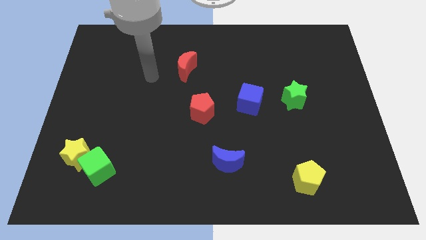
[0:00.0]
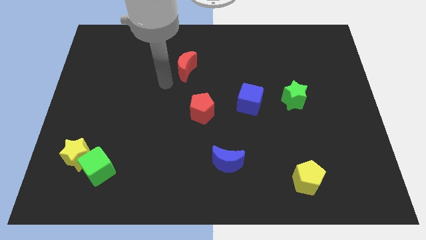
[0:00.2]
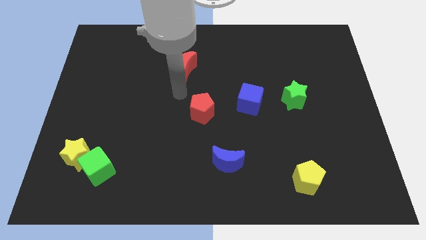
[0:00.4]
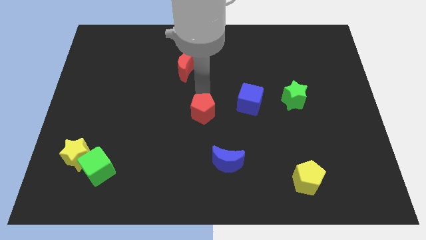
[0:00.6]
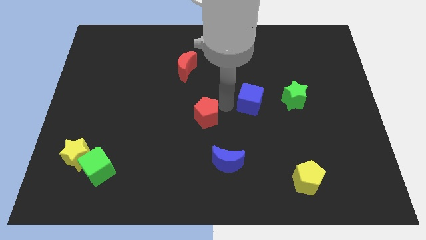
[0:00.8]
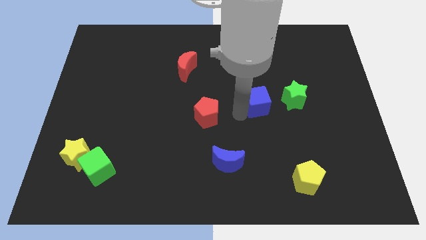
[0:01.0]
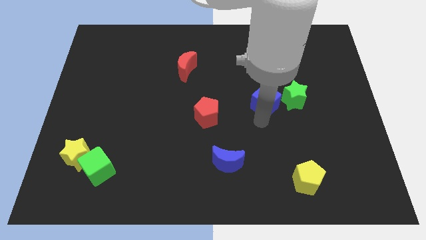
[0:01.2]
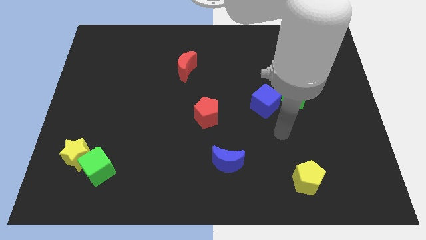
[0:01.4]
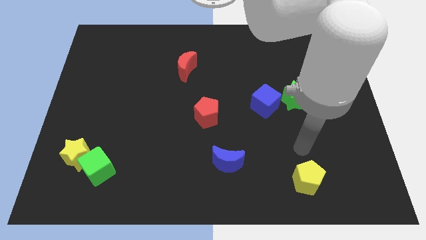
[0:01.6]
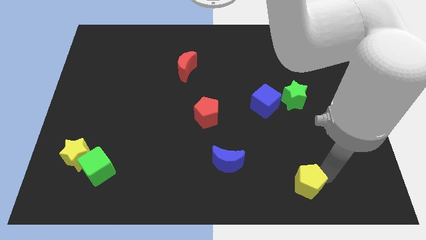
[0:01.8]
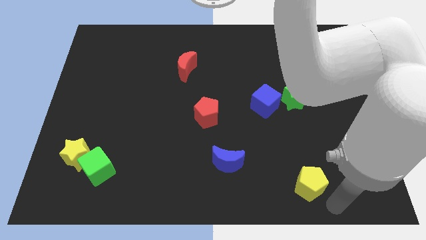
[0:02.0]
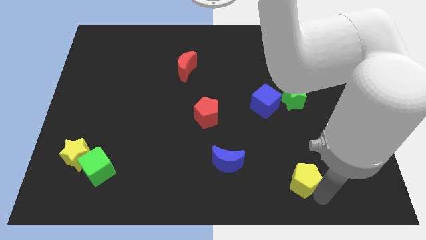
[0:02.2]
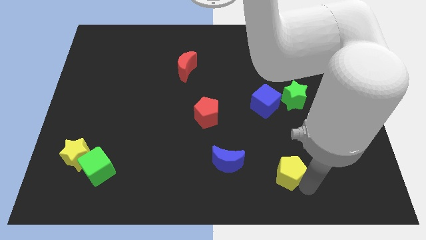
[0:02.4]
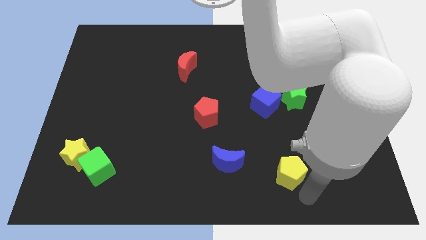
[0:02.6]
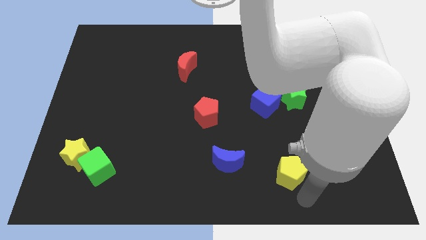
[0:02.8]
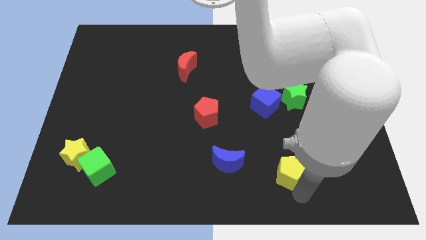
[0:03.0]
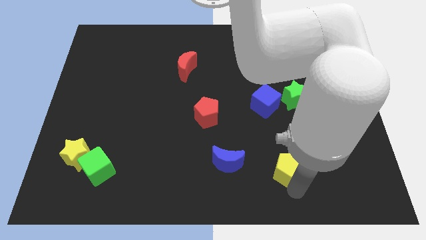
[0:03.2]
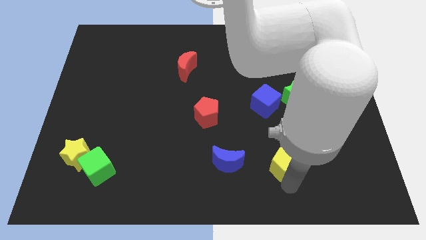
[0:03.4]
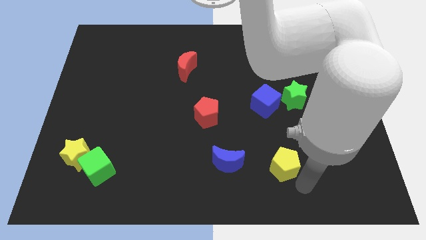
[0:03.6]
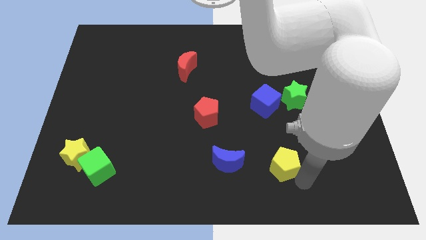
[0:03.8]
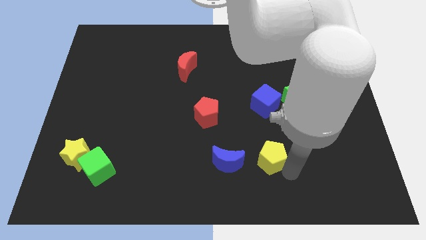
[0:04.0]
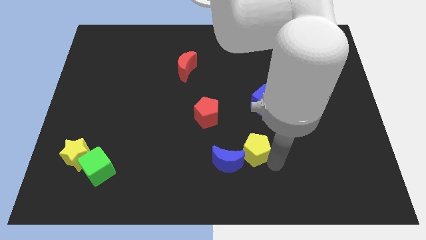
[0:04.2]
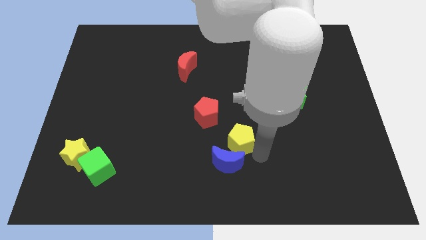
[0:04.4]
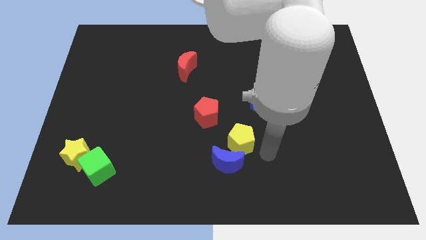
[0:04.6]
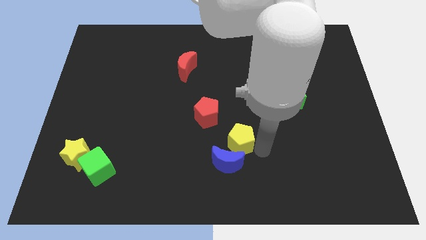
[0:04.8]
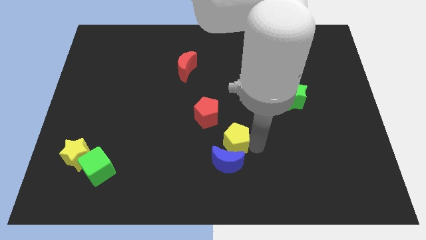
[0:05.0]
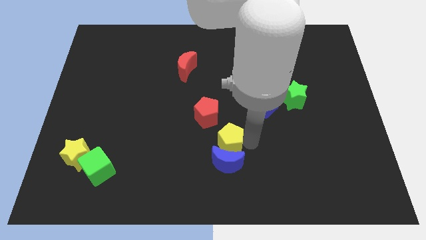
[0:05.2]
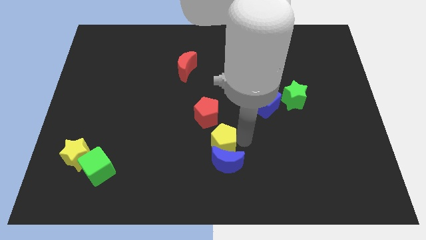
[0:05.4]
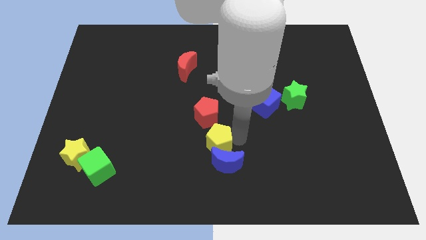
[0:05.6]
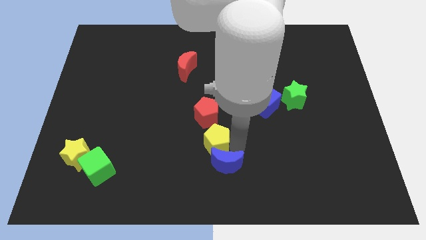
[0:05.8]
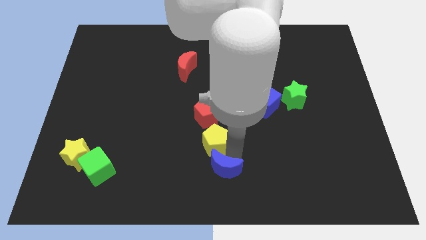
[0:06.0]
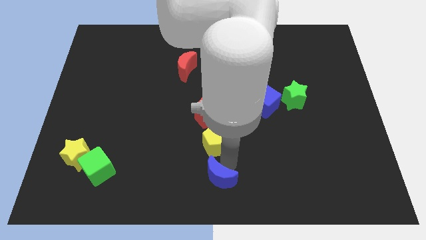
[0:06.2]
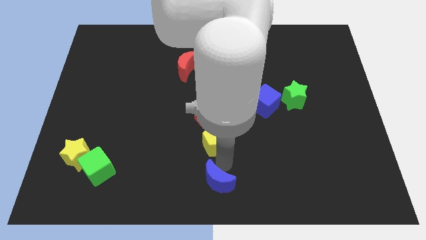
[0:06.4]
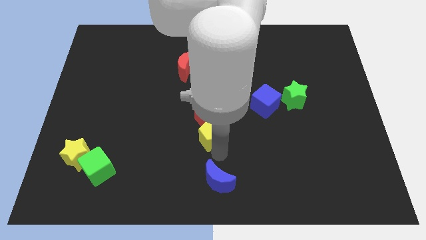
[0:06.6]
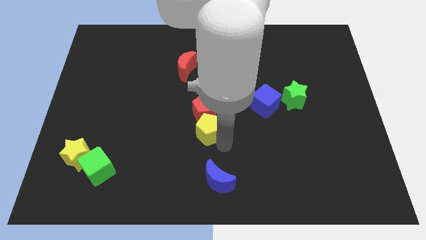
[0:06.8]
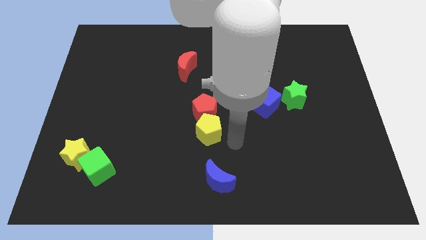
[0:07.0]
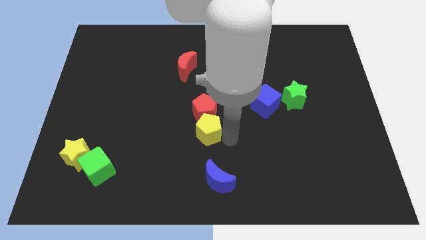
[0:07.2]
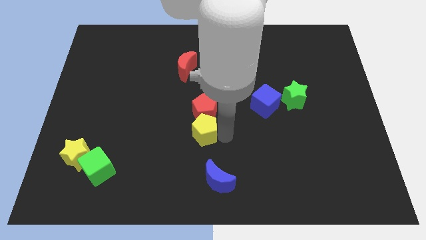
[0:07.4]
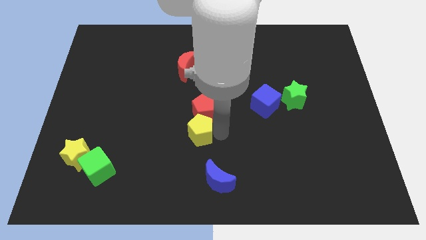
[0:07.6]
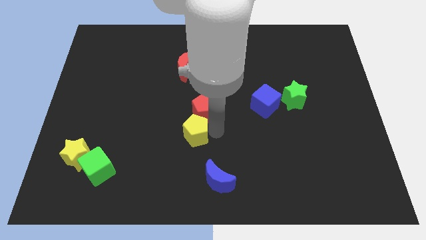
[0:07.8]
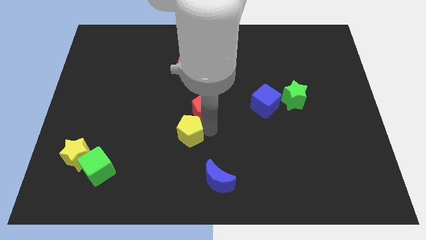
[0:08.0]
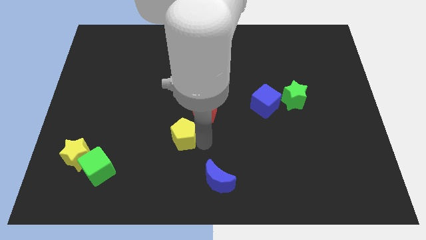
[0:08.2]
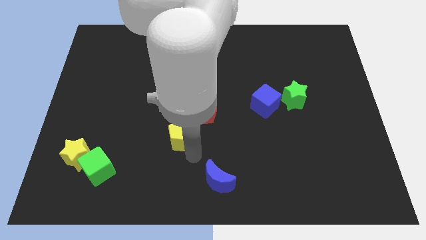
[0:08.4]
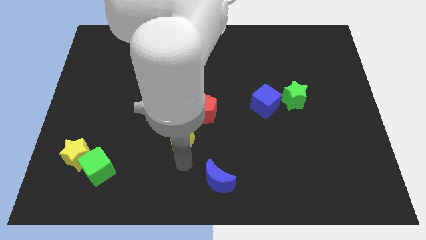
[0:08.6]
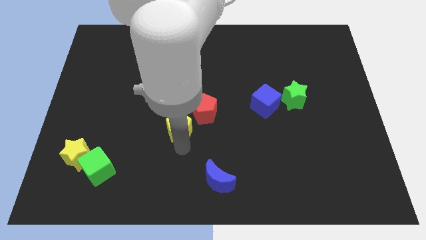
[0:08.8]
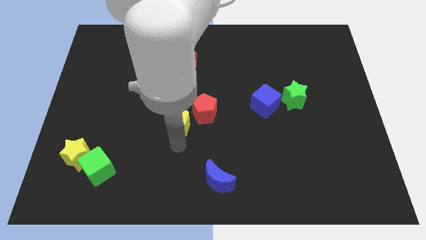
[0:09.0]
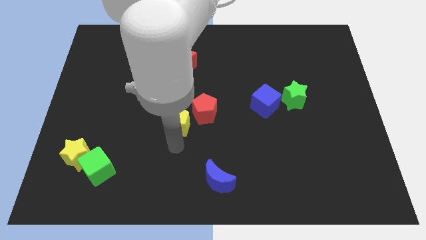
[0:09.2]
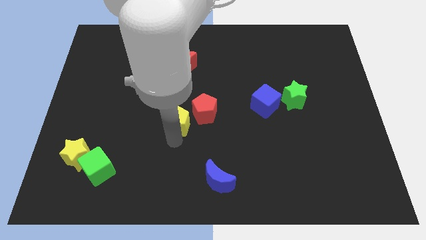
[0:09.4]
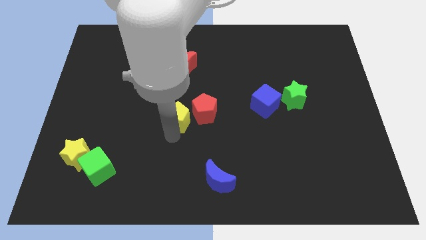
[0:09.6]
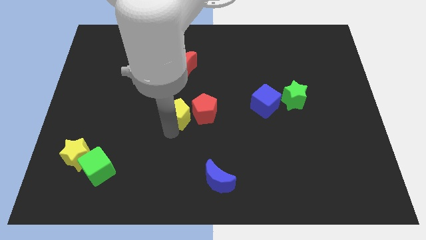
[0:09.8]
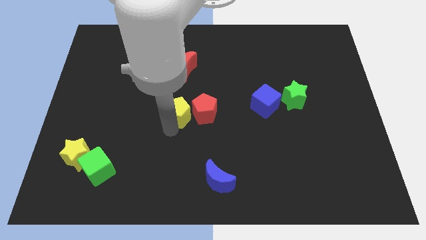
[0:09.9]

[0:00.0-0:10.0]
push the yellow pentagon to the top left of the red pentagon

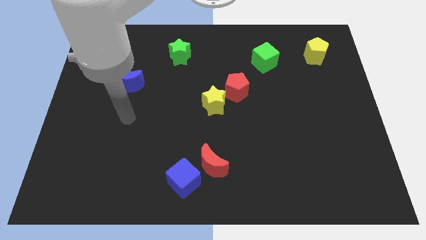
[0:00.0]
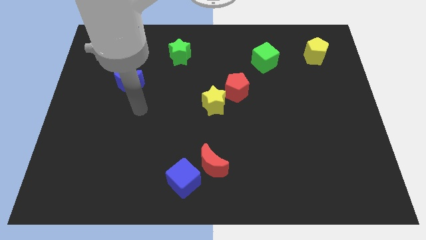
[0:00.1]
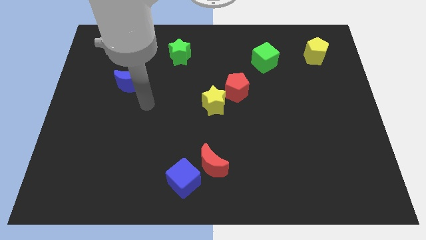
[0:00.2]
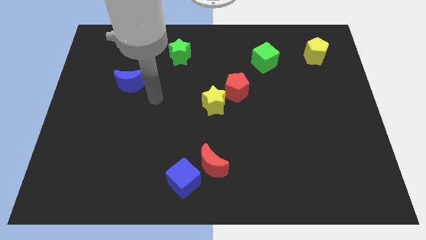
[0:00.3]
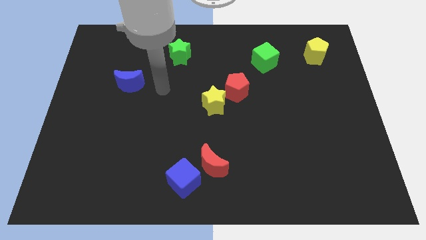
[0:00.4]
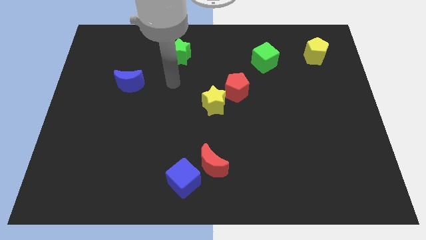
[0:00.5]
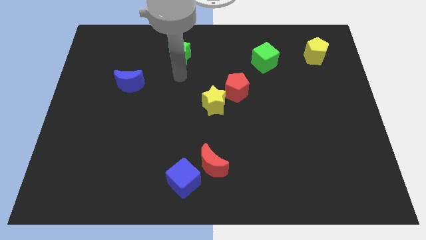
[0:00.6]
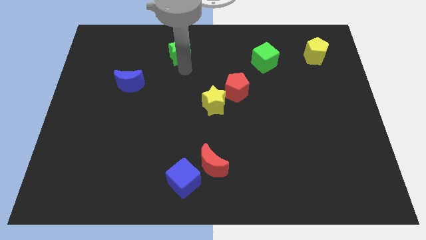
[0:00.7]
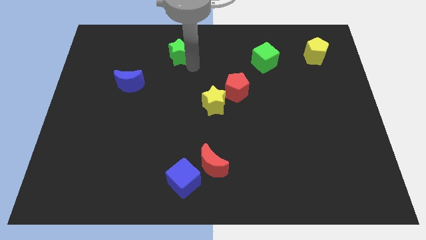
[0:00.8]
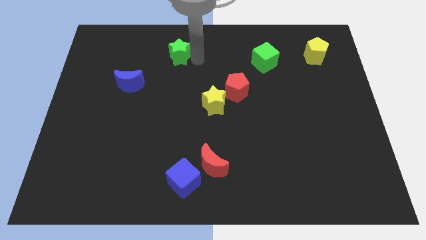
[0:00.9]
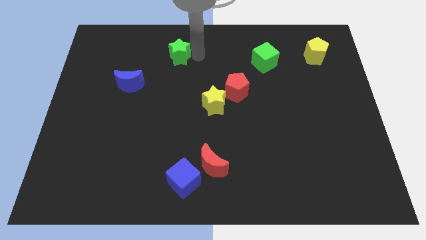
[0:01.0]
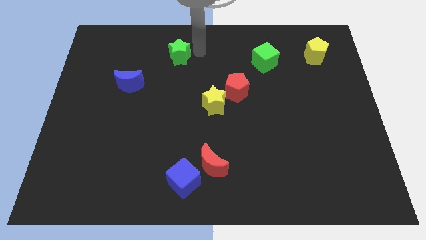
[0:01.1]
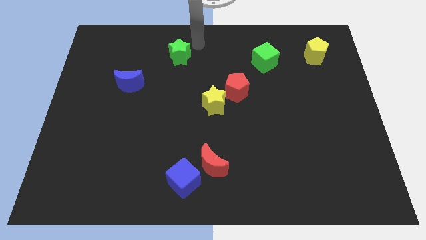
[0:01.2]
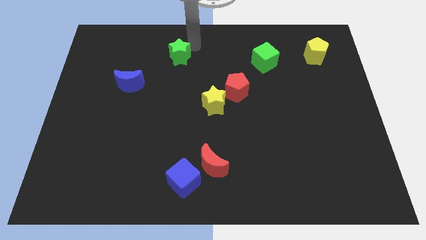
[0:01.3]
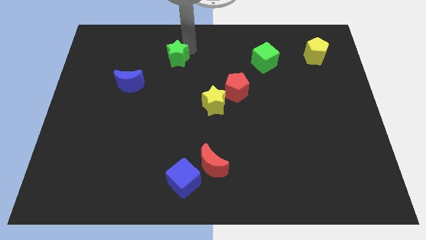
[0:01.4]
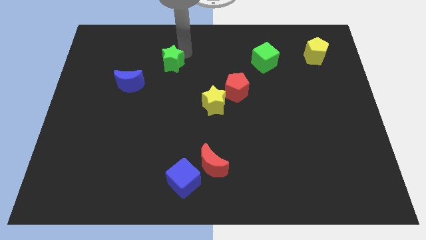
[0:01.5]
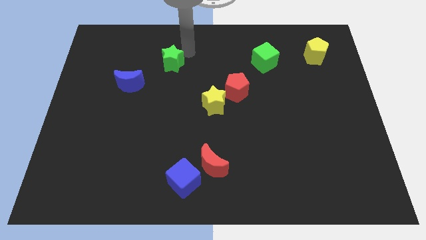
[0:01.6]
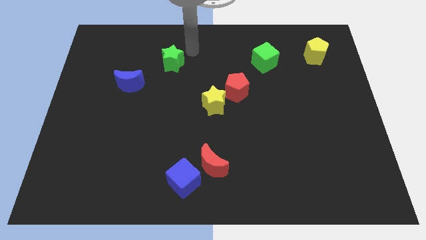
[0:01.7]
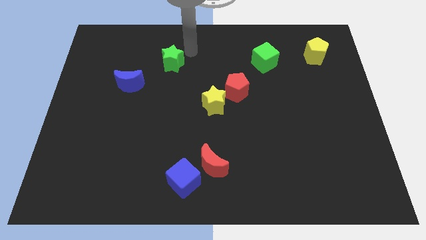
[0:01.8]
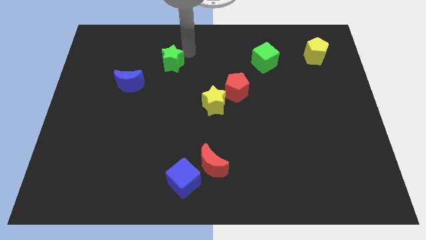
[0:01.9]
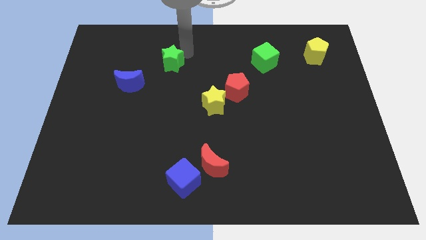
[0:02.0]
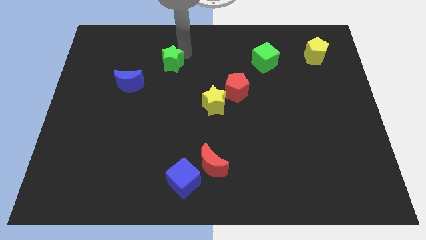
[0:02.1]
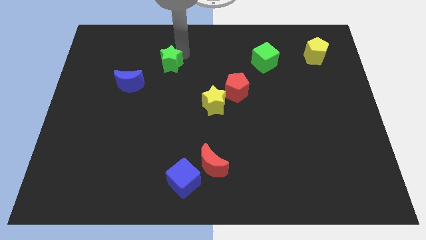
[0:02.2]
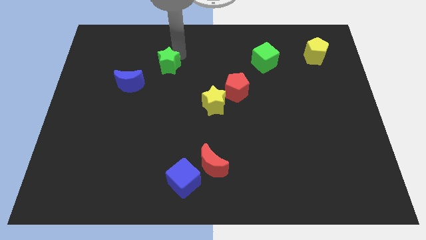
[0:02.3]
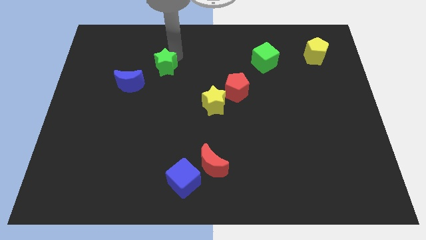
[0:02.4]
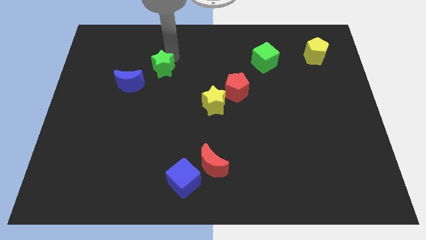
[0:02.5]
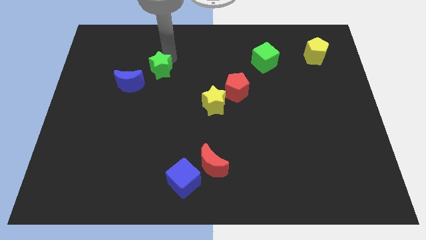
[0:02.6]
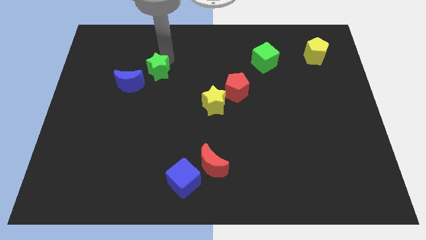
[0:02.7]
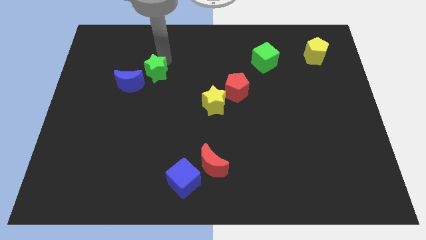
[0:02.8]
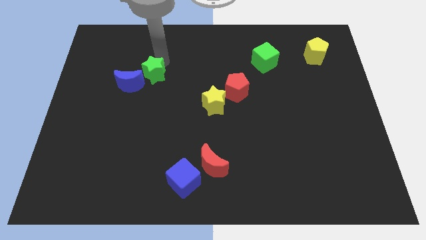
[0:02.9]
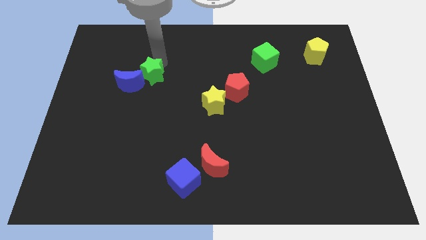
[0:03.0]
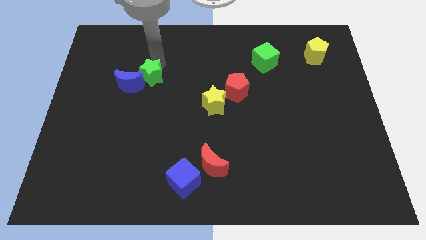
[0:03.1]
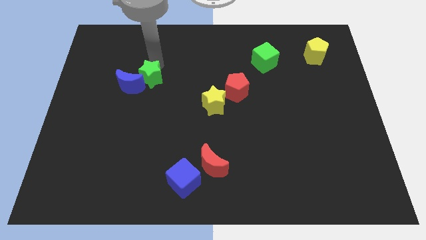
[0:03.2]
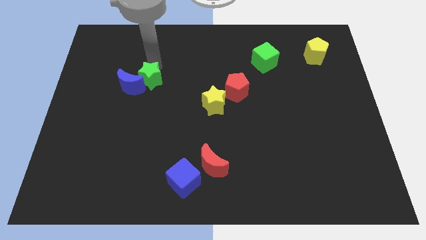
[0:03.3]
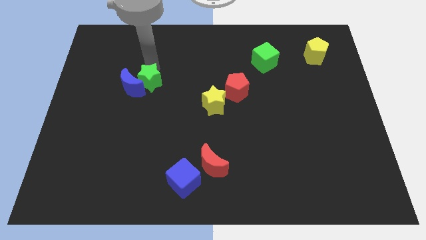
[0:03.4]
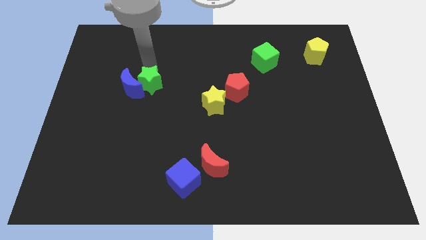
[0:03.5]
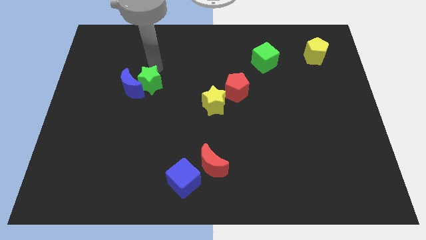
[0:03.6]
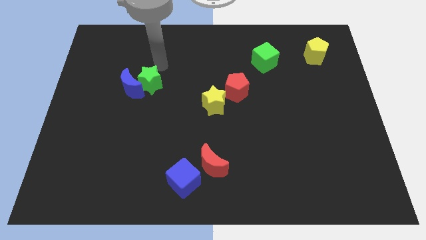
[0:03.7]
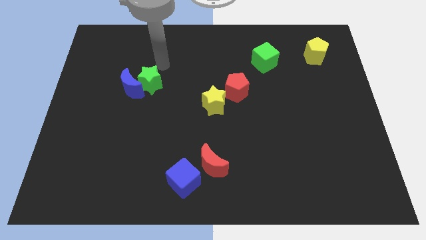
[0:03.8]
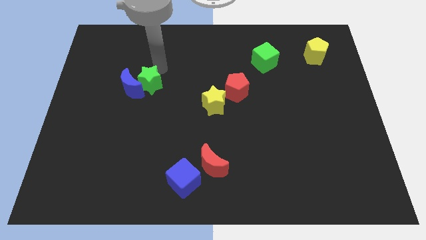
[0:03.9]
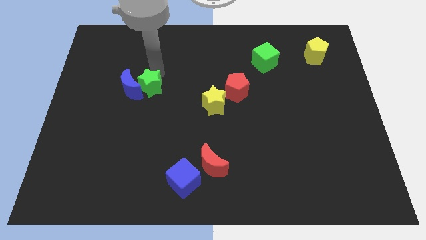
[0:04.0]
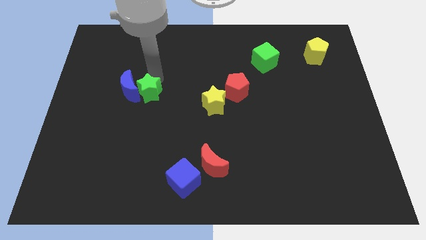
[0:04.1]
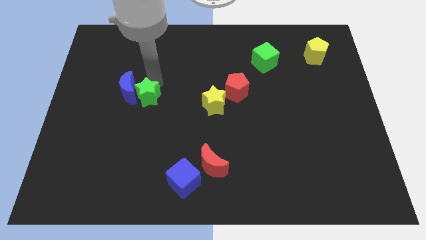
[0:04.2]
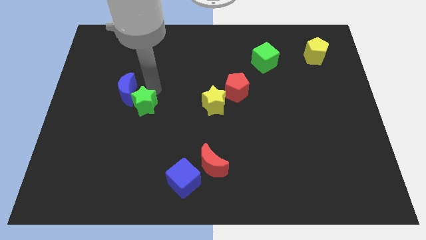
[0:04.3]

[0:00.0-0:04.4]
push the green star to the bottom of the blue moon
